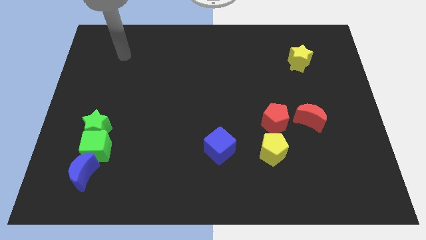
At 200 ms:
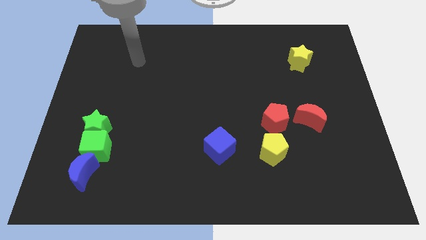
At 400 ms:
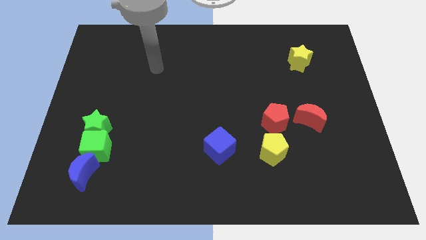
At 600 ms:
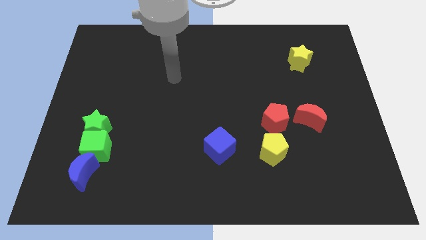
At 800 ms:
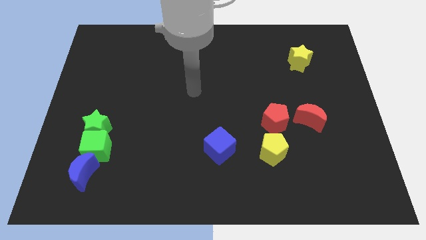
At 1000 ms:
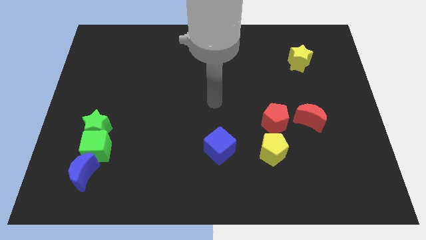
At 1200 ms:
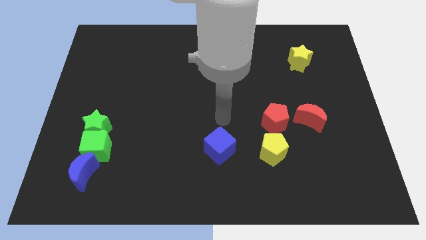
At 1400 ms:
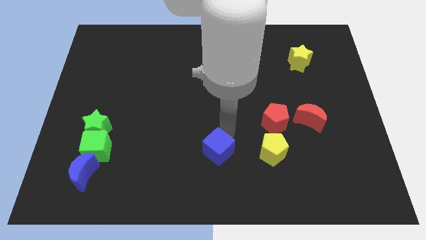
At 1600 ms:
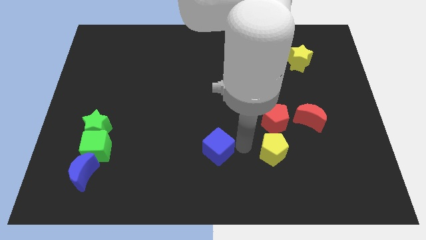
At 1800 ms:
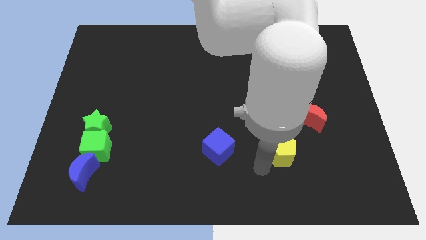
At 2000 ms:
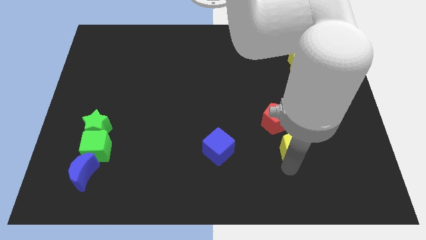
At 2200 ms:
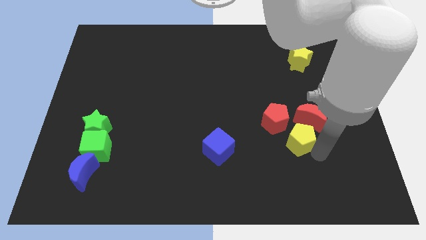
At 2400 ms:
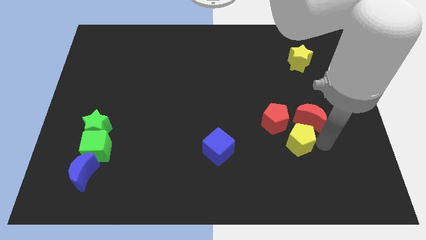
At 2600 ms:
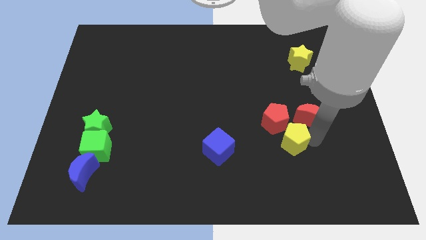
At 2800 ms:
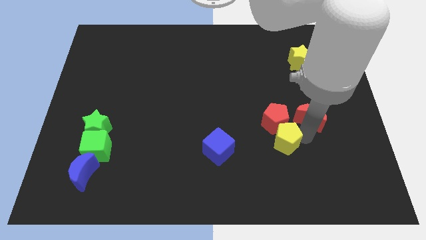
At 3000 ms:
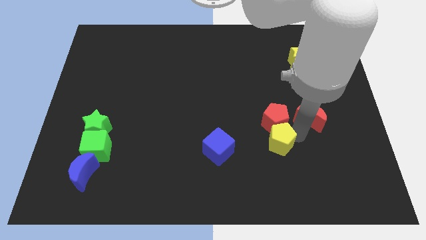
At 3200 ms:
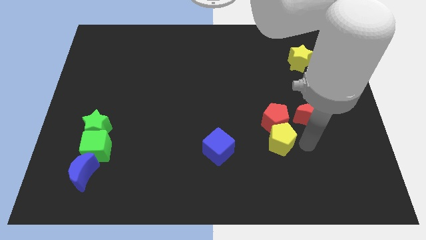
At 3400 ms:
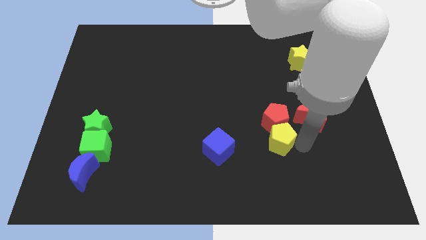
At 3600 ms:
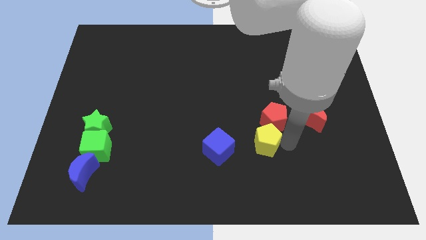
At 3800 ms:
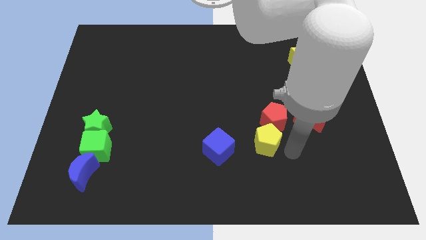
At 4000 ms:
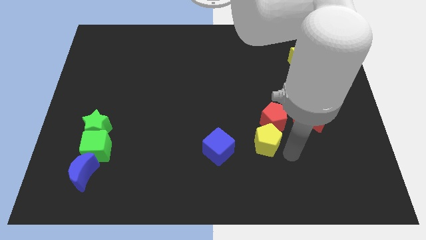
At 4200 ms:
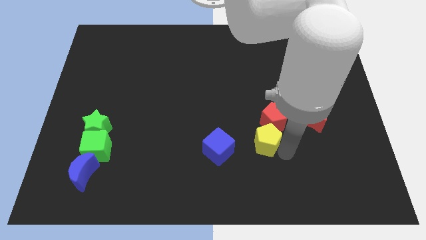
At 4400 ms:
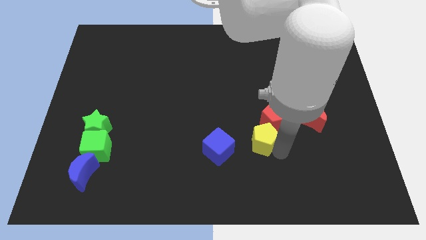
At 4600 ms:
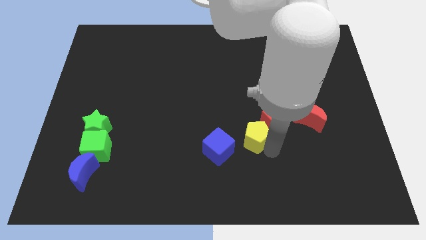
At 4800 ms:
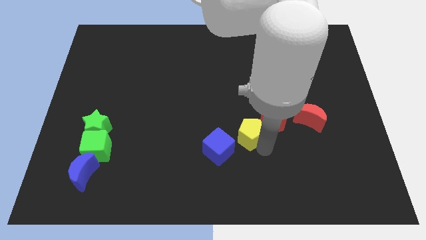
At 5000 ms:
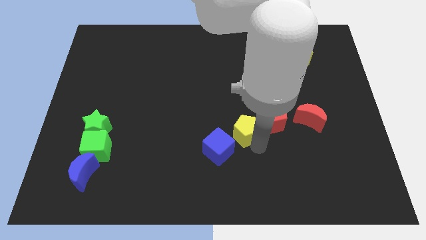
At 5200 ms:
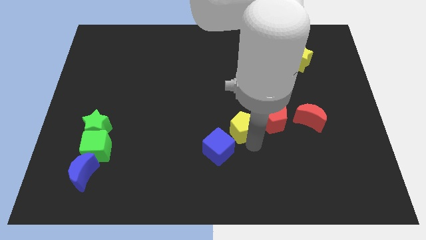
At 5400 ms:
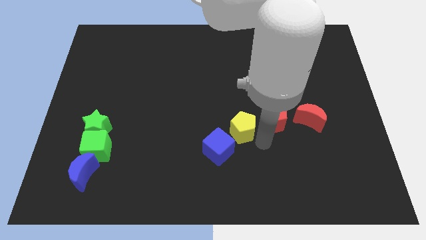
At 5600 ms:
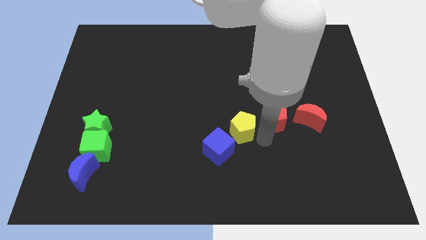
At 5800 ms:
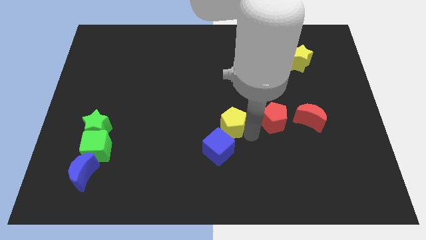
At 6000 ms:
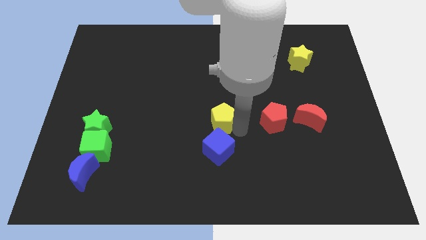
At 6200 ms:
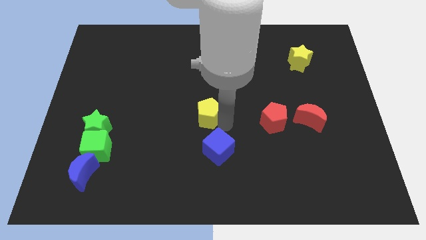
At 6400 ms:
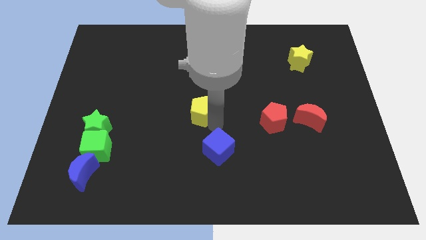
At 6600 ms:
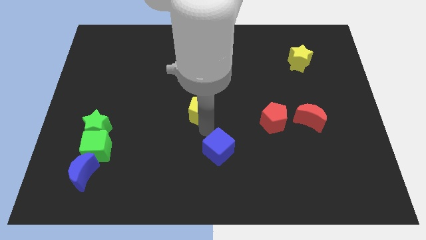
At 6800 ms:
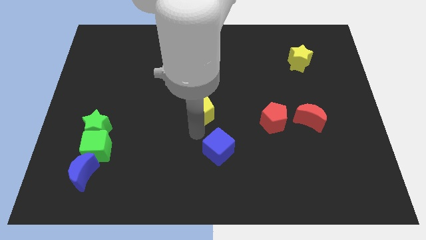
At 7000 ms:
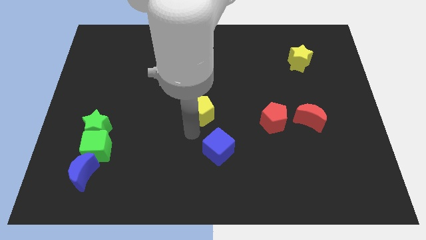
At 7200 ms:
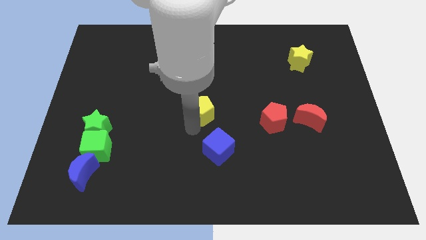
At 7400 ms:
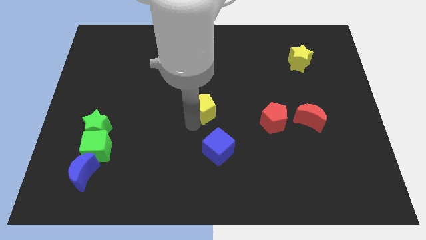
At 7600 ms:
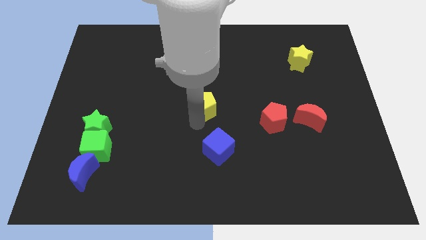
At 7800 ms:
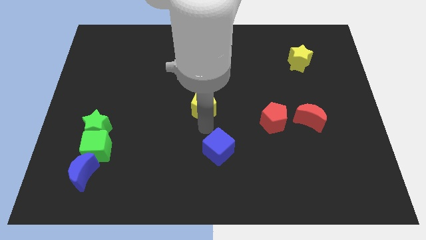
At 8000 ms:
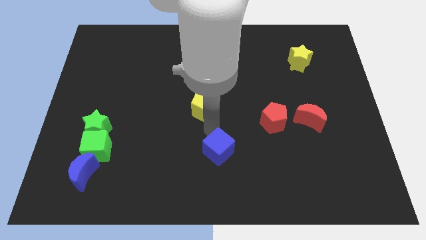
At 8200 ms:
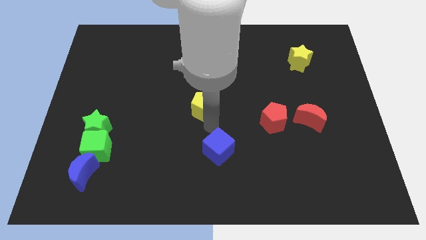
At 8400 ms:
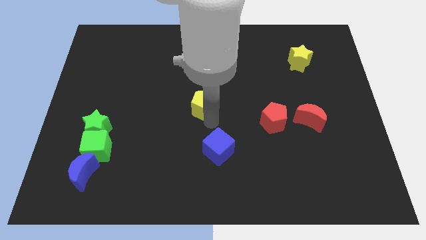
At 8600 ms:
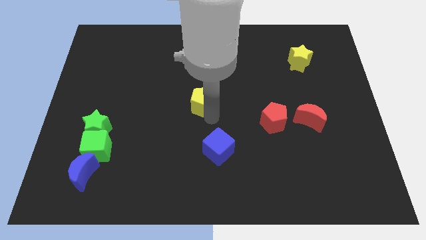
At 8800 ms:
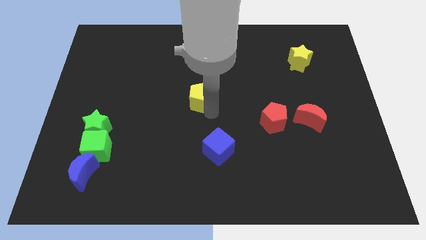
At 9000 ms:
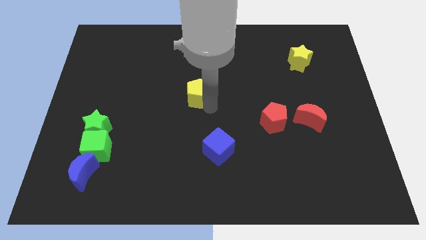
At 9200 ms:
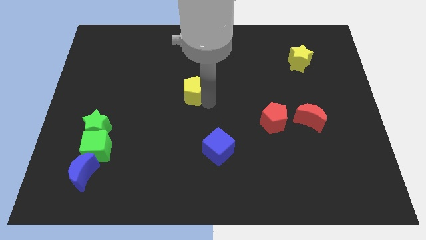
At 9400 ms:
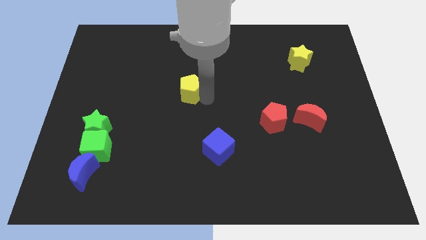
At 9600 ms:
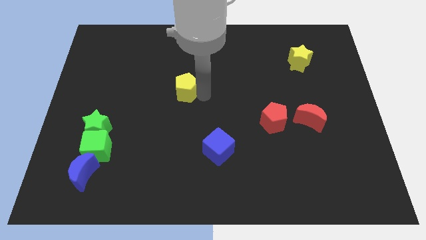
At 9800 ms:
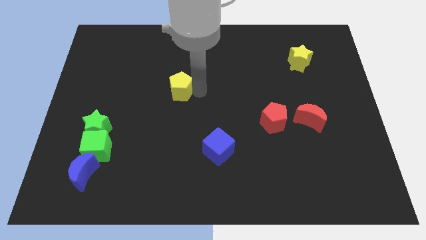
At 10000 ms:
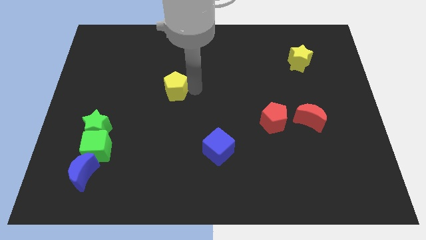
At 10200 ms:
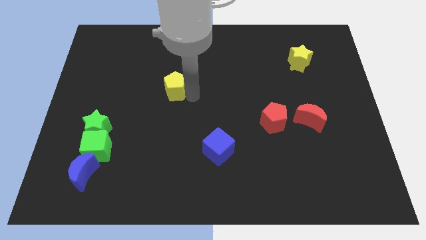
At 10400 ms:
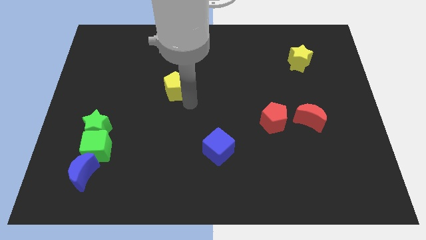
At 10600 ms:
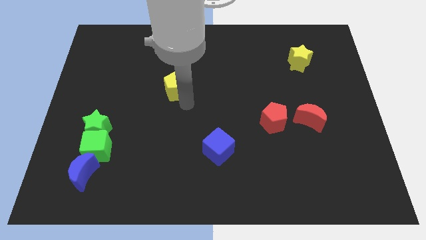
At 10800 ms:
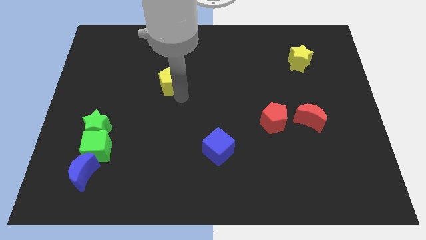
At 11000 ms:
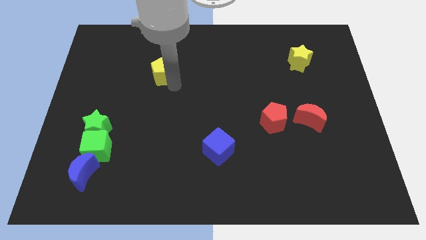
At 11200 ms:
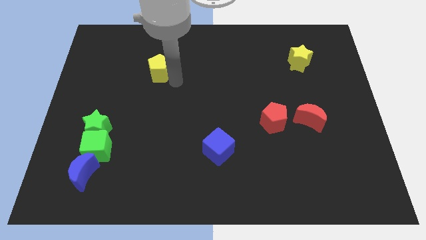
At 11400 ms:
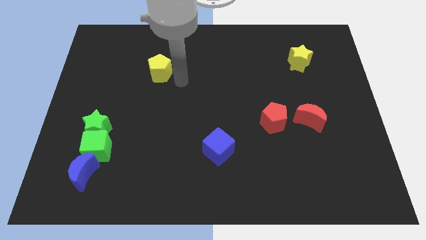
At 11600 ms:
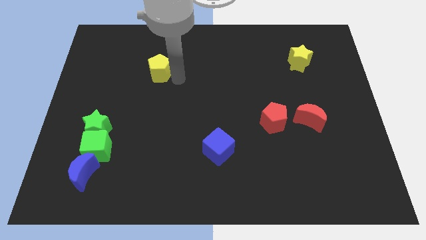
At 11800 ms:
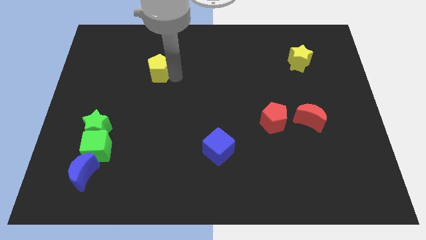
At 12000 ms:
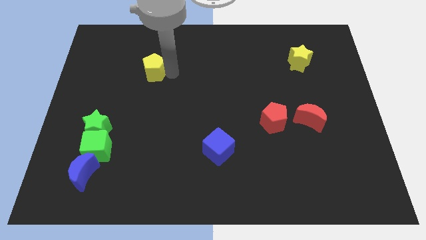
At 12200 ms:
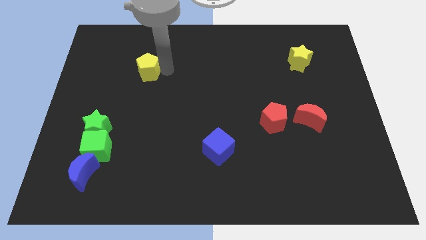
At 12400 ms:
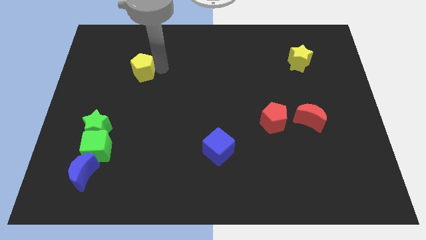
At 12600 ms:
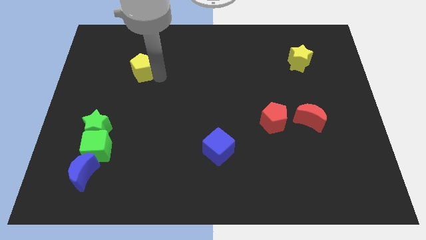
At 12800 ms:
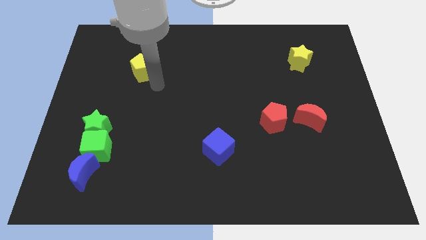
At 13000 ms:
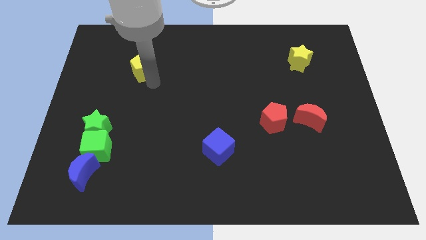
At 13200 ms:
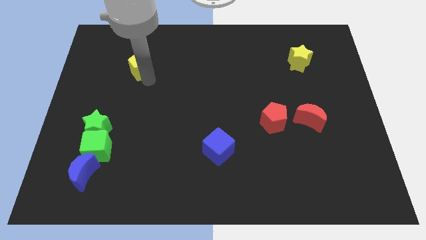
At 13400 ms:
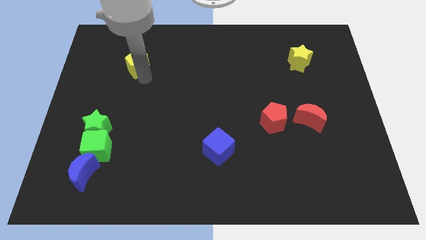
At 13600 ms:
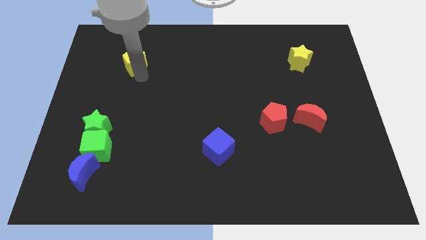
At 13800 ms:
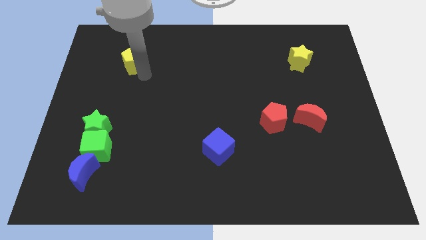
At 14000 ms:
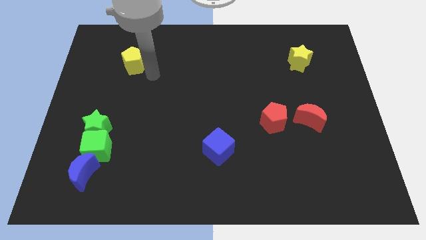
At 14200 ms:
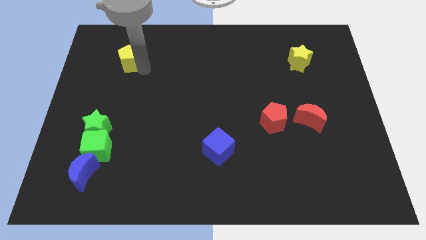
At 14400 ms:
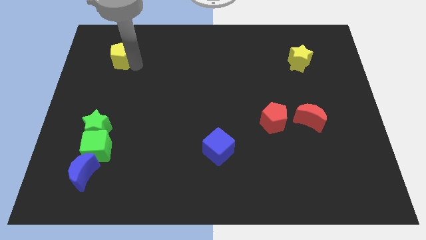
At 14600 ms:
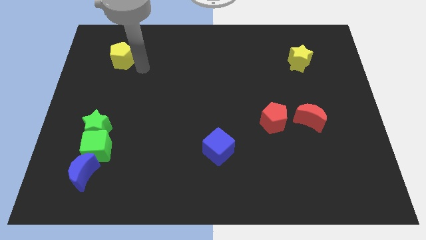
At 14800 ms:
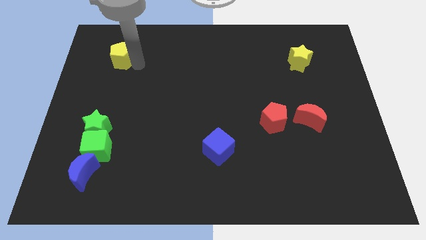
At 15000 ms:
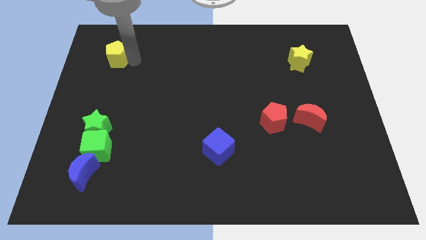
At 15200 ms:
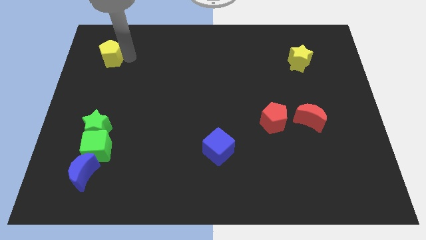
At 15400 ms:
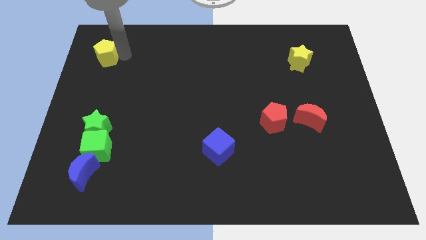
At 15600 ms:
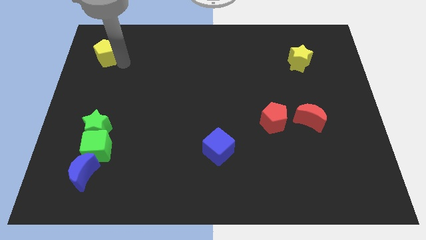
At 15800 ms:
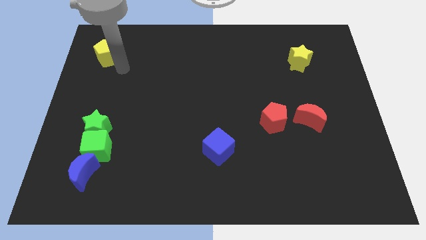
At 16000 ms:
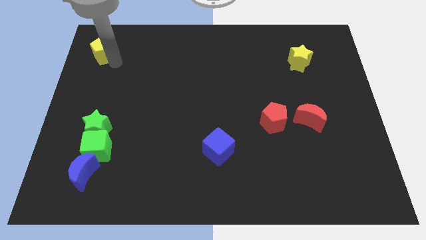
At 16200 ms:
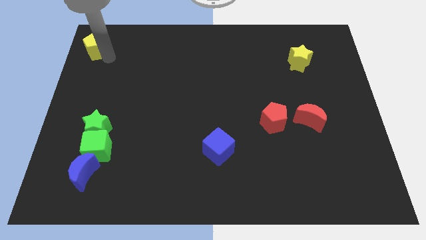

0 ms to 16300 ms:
move the yellow pentagon to the top left corner
